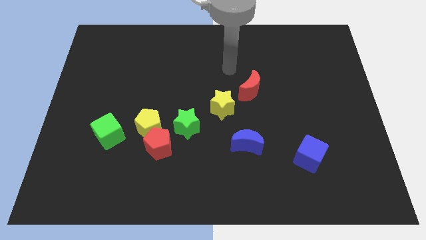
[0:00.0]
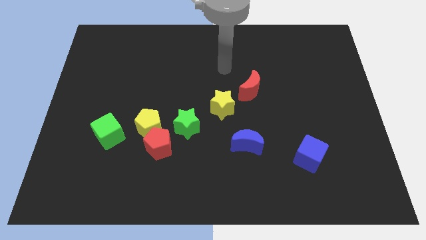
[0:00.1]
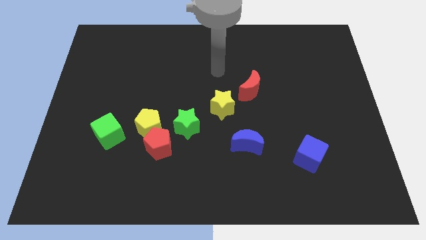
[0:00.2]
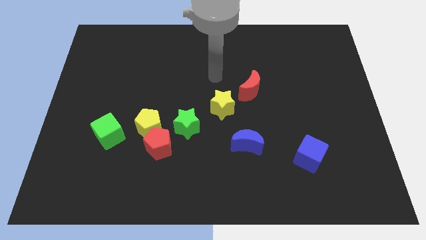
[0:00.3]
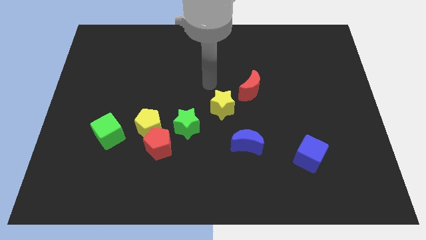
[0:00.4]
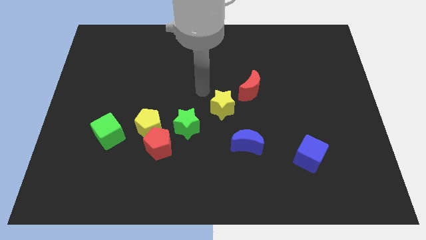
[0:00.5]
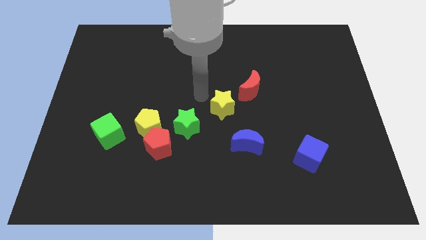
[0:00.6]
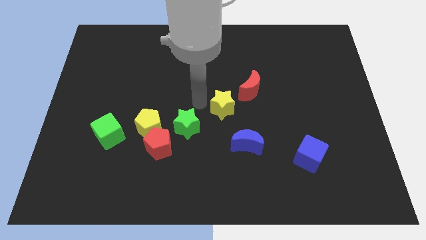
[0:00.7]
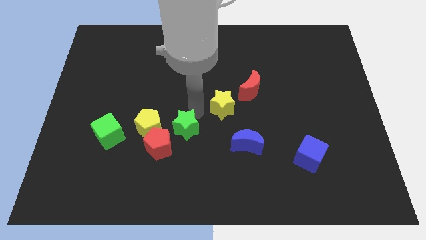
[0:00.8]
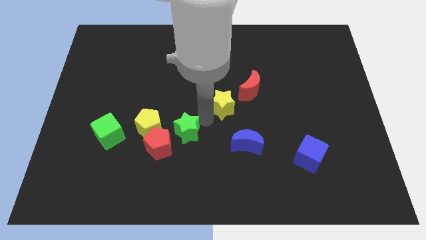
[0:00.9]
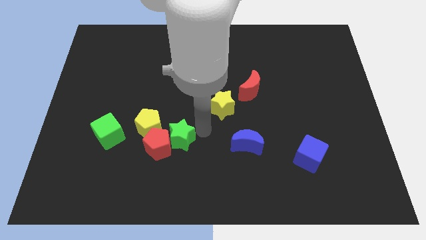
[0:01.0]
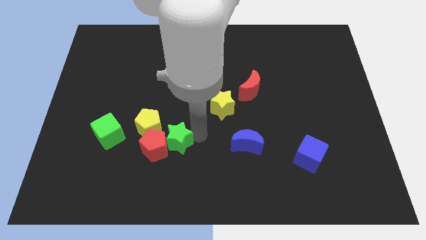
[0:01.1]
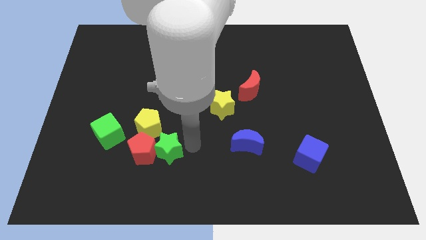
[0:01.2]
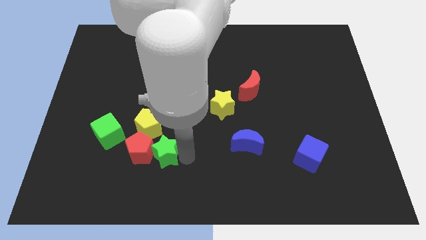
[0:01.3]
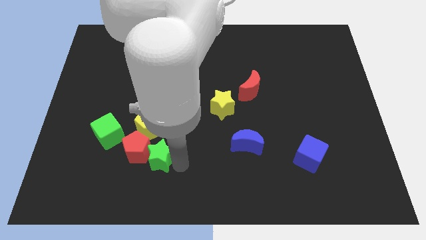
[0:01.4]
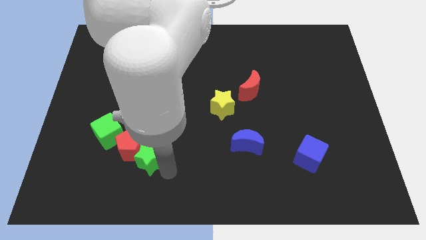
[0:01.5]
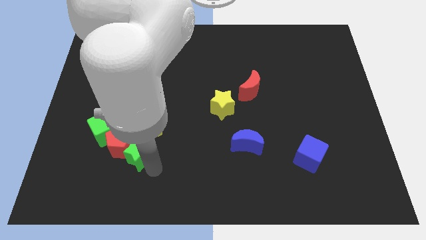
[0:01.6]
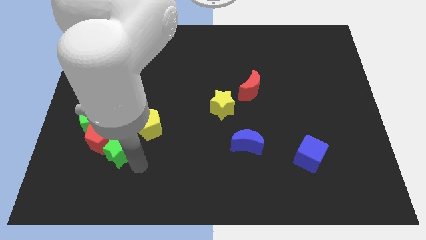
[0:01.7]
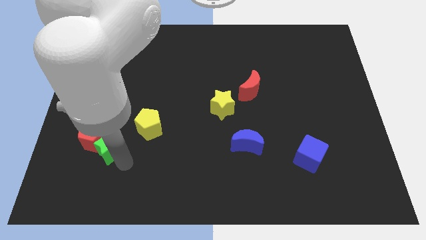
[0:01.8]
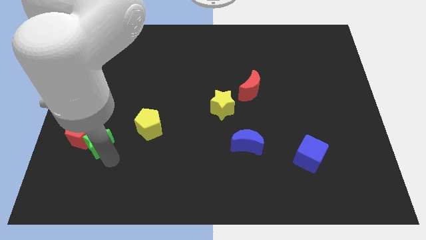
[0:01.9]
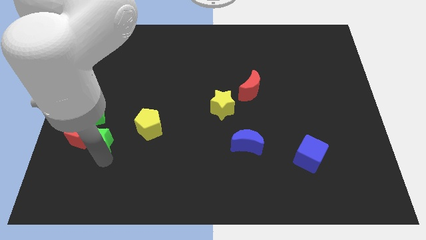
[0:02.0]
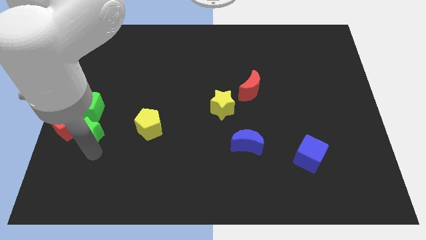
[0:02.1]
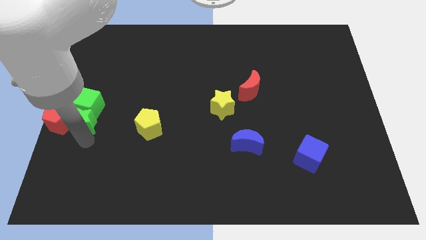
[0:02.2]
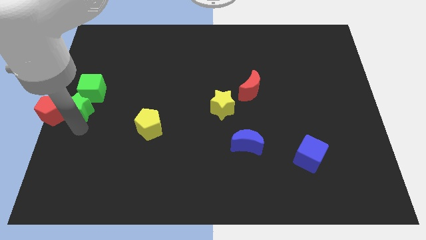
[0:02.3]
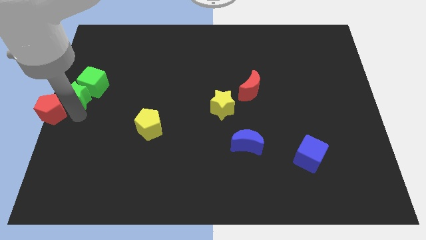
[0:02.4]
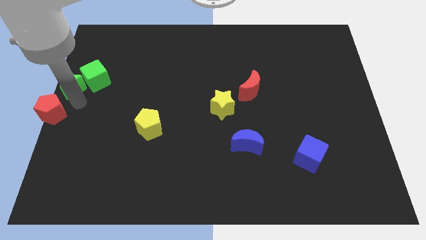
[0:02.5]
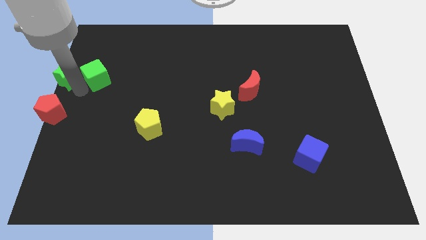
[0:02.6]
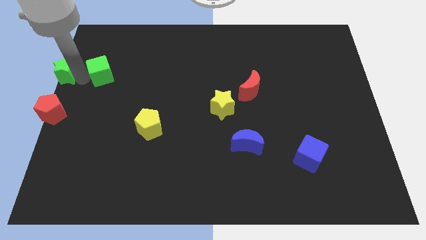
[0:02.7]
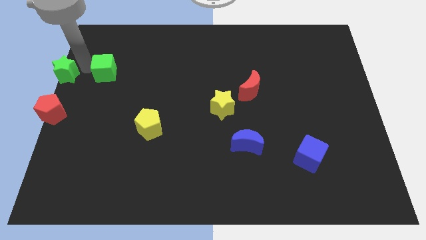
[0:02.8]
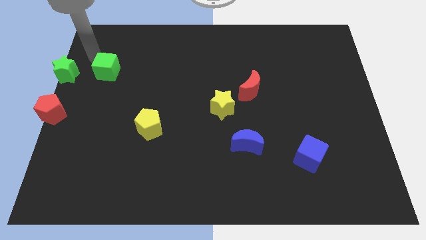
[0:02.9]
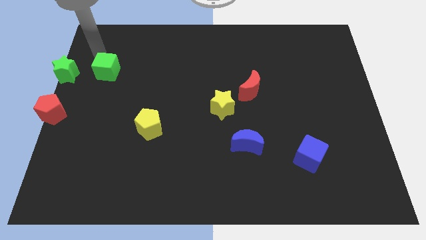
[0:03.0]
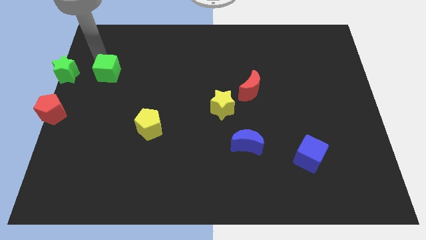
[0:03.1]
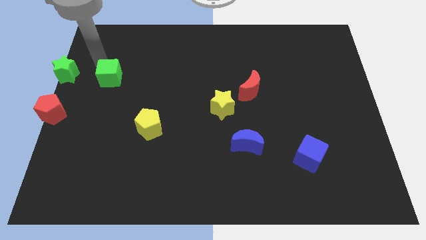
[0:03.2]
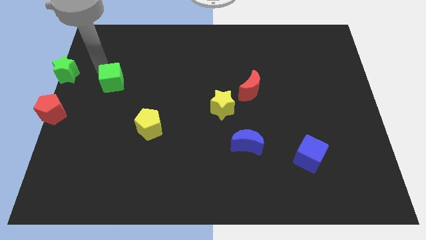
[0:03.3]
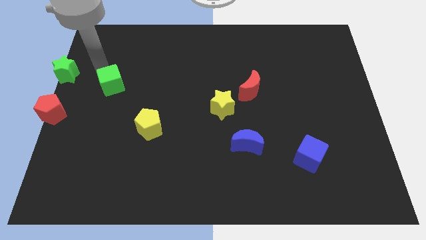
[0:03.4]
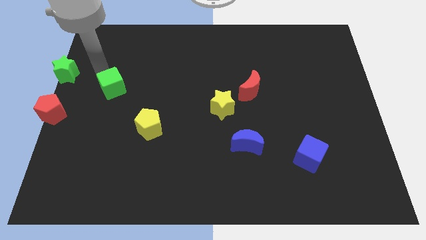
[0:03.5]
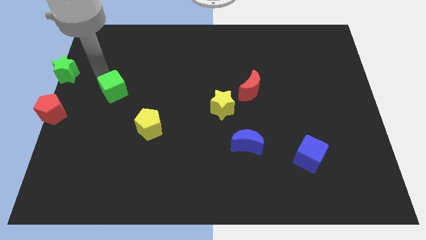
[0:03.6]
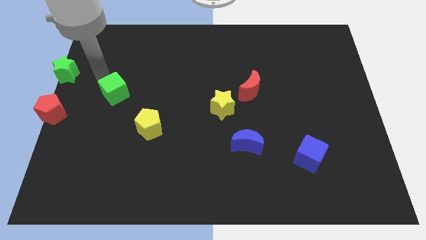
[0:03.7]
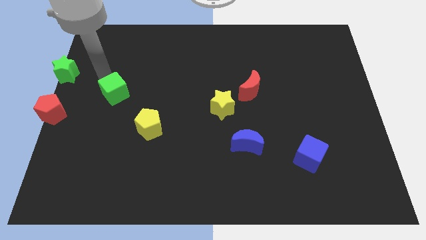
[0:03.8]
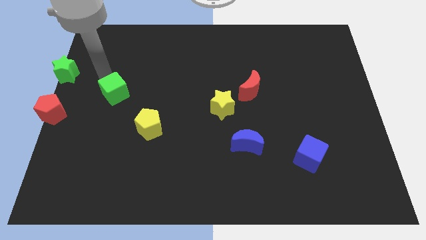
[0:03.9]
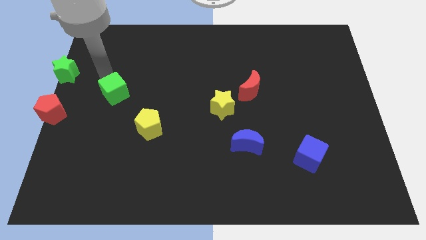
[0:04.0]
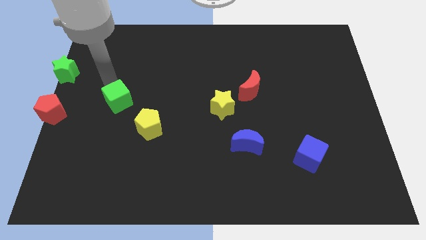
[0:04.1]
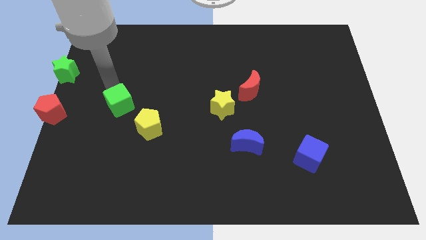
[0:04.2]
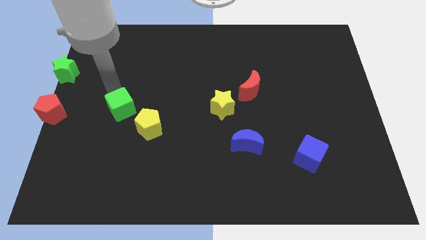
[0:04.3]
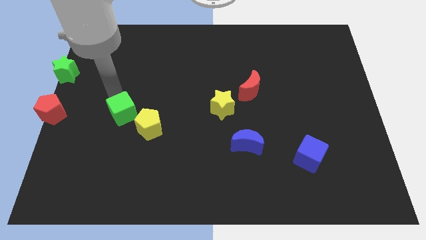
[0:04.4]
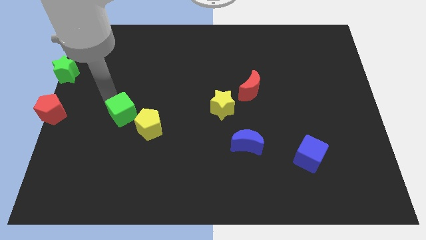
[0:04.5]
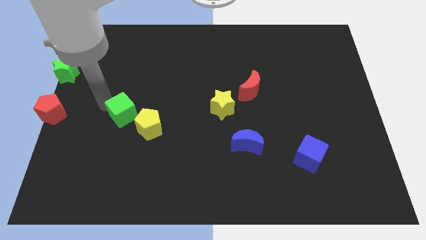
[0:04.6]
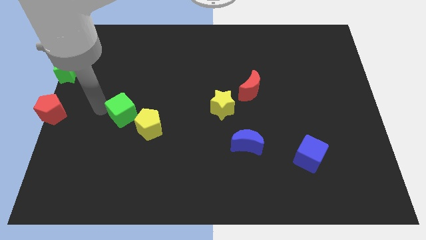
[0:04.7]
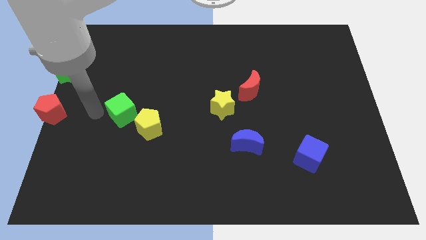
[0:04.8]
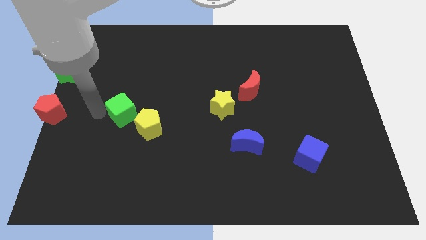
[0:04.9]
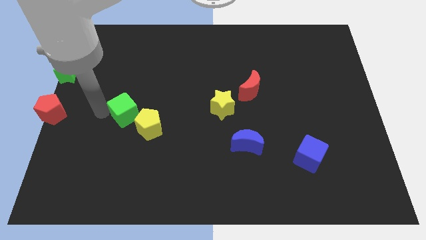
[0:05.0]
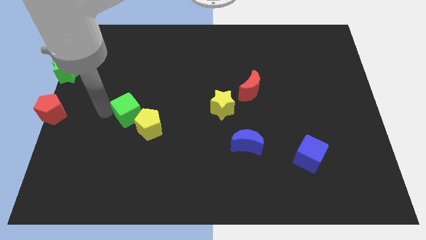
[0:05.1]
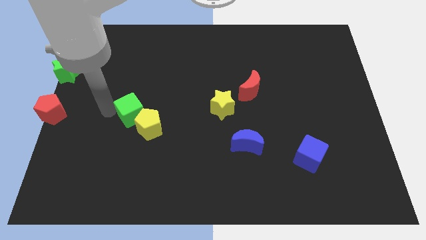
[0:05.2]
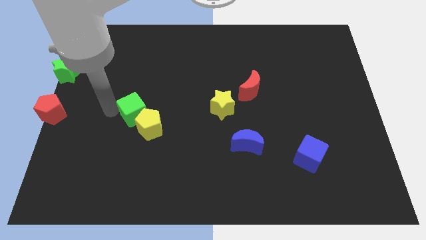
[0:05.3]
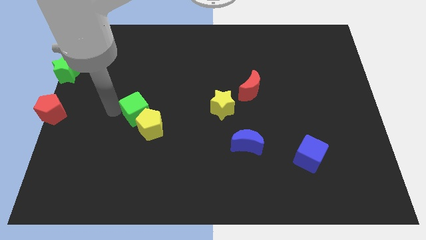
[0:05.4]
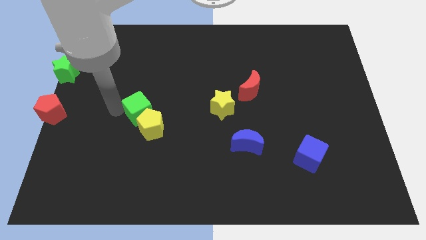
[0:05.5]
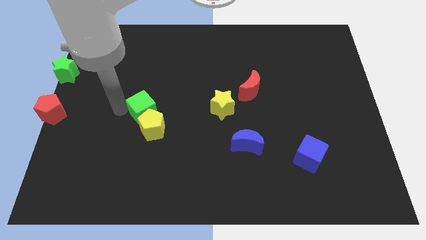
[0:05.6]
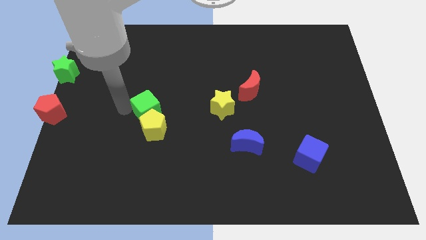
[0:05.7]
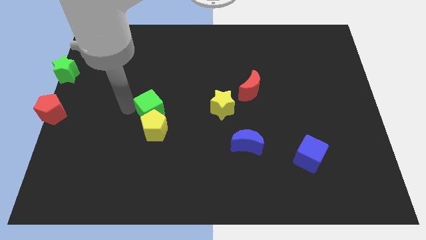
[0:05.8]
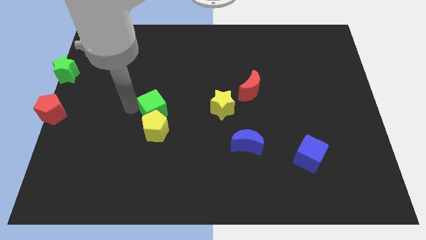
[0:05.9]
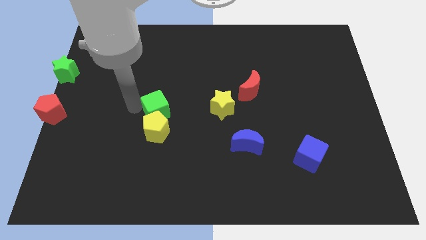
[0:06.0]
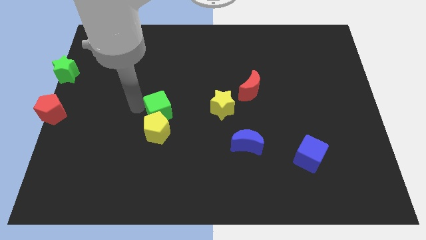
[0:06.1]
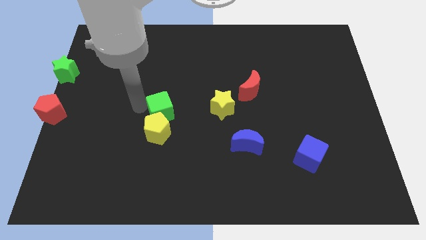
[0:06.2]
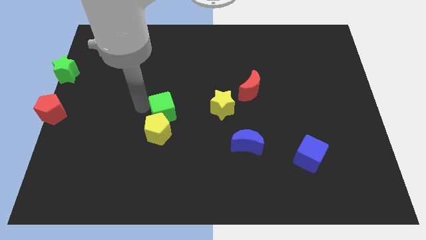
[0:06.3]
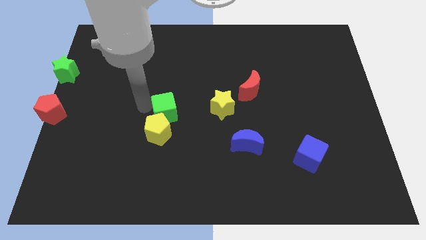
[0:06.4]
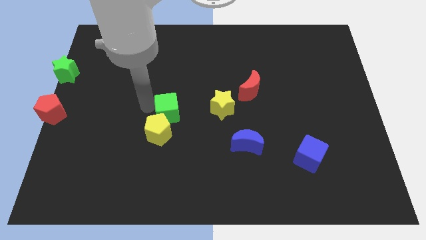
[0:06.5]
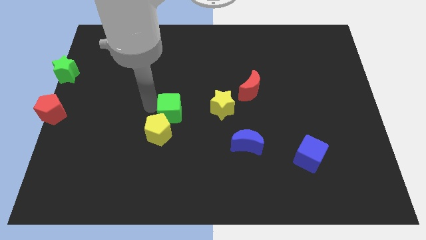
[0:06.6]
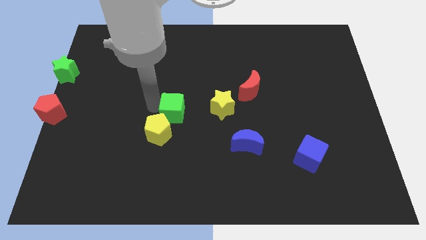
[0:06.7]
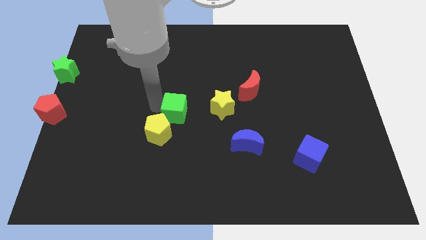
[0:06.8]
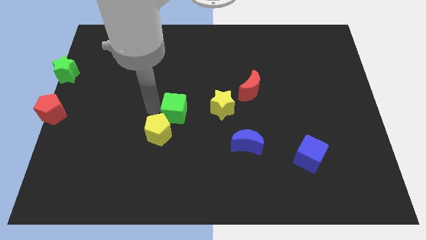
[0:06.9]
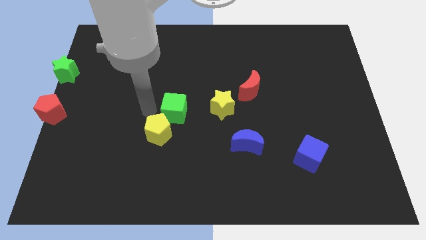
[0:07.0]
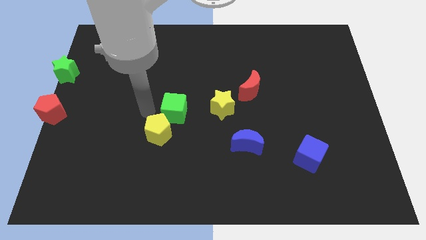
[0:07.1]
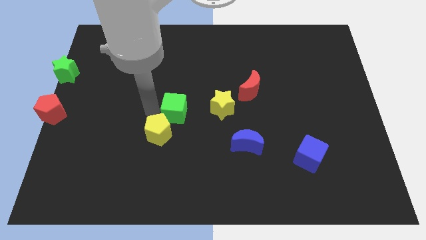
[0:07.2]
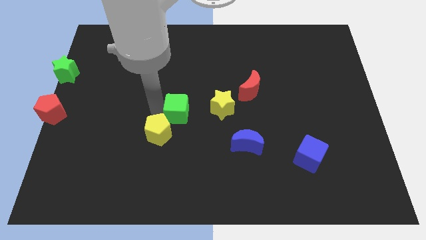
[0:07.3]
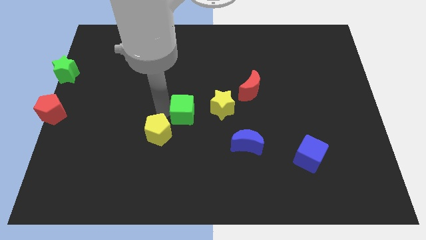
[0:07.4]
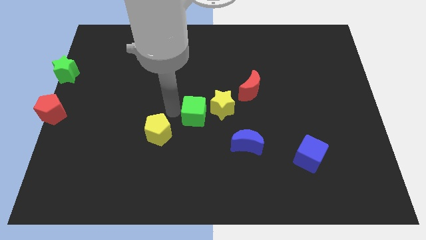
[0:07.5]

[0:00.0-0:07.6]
move the green cube right of the yellow pentagon
